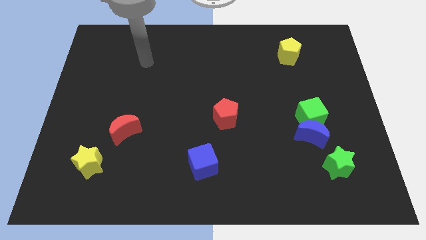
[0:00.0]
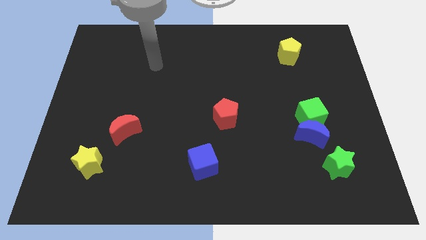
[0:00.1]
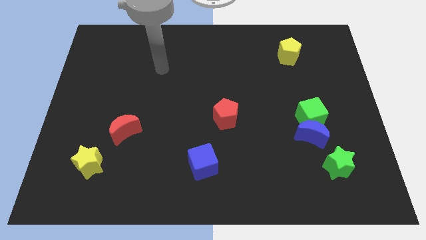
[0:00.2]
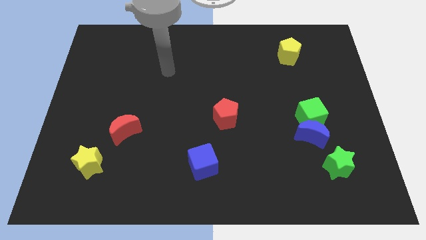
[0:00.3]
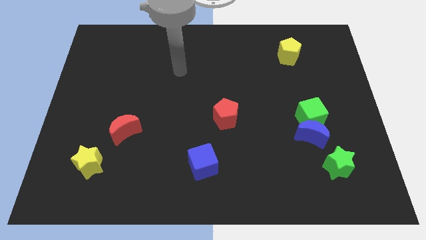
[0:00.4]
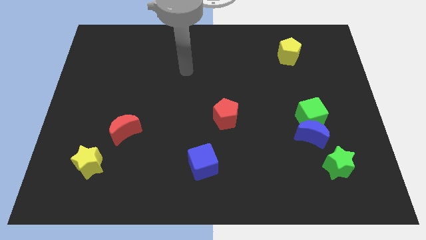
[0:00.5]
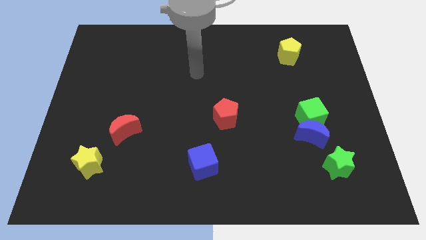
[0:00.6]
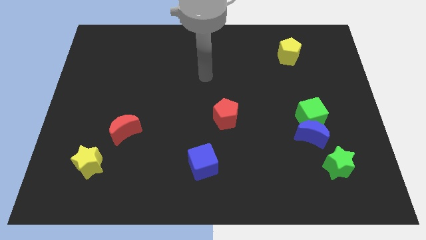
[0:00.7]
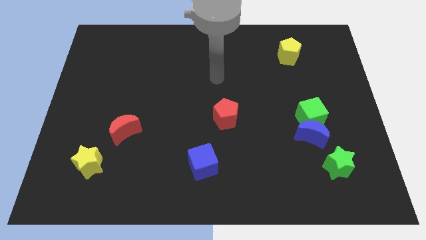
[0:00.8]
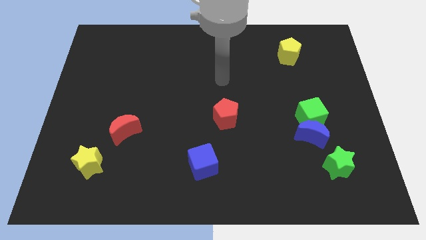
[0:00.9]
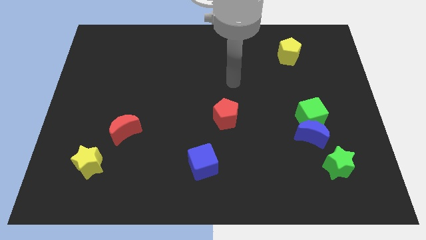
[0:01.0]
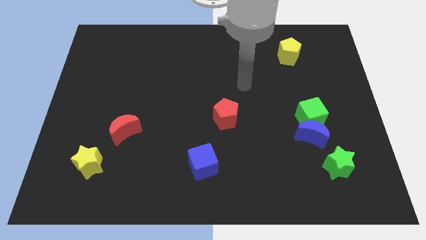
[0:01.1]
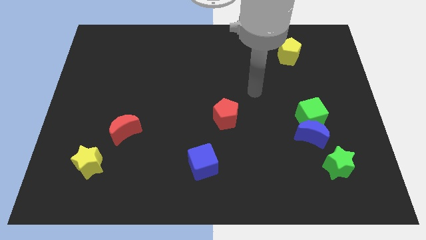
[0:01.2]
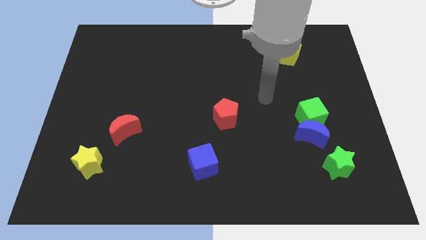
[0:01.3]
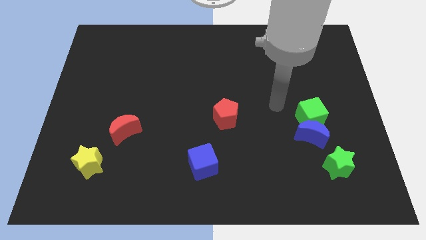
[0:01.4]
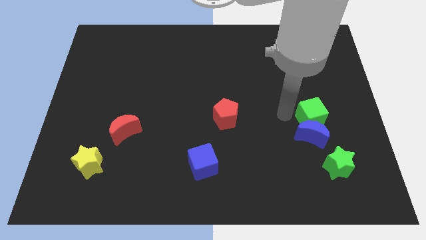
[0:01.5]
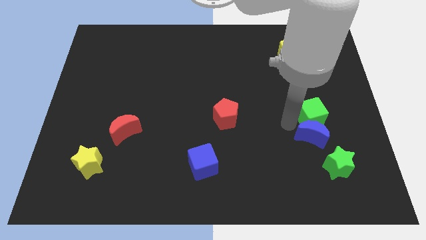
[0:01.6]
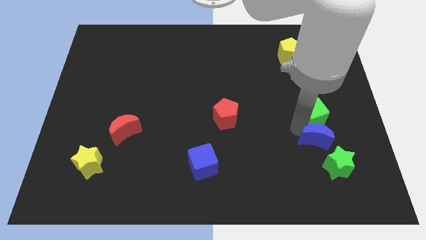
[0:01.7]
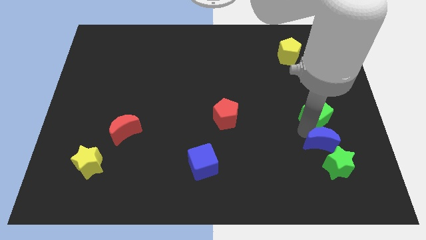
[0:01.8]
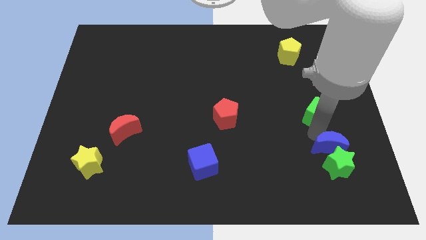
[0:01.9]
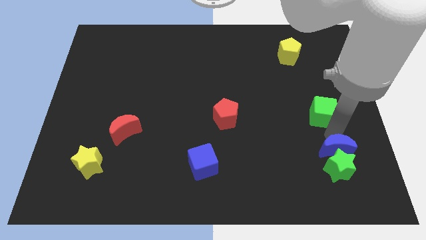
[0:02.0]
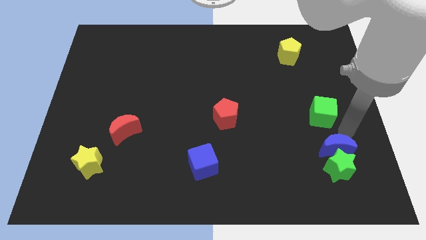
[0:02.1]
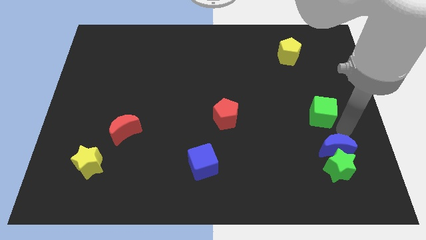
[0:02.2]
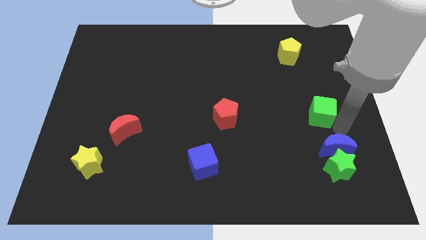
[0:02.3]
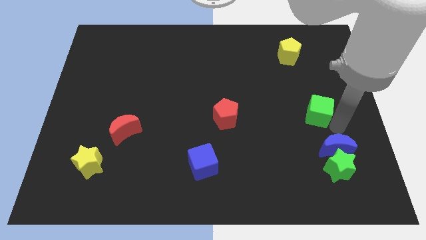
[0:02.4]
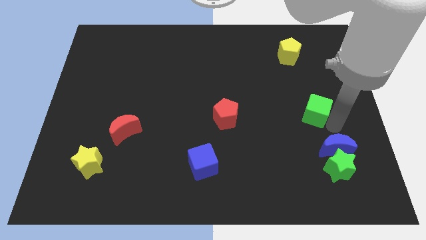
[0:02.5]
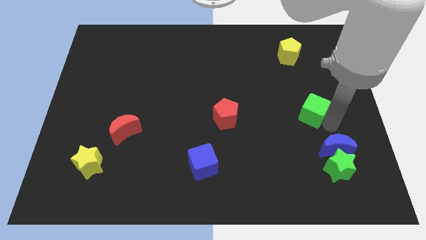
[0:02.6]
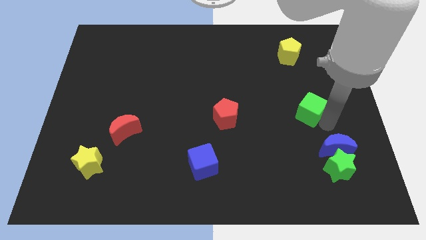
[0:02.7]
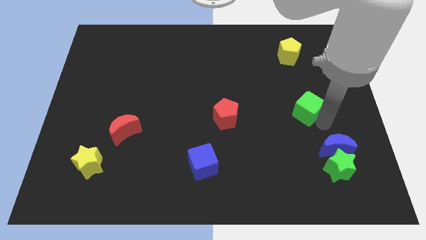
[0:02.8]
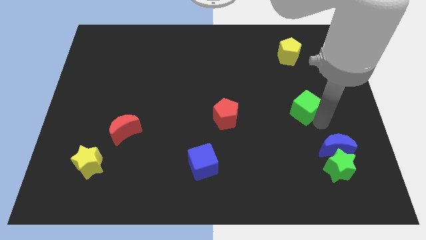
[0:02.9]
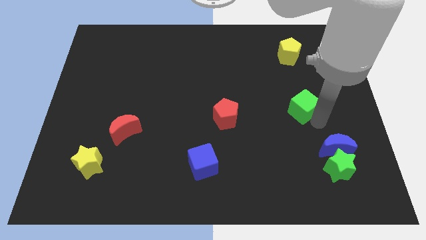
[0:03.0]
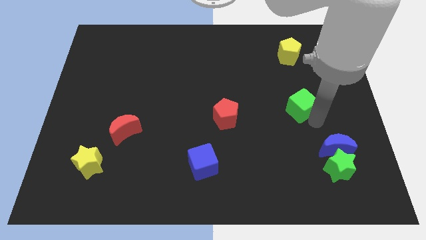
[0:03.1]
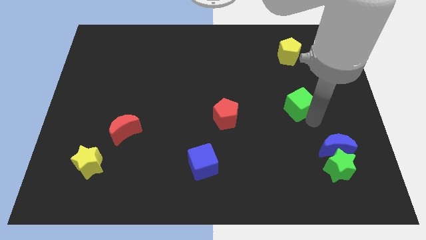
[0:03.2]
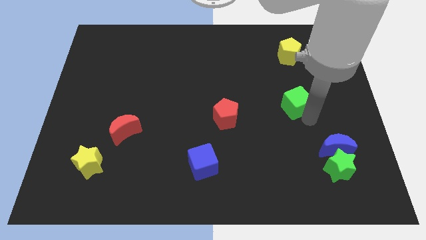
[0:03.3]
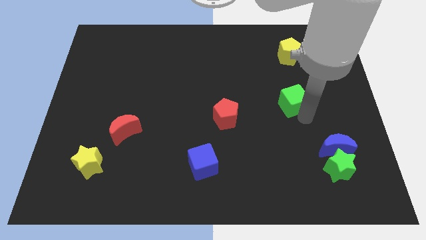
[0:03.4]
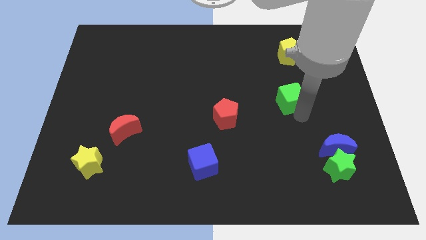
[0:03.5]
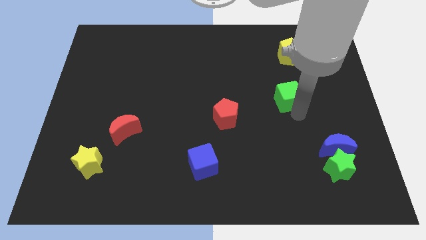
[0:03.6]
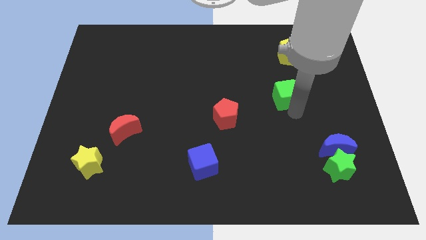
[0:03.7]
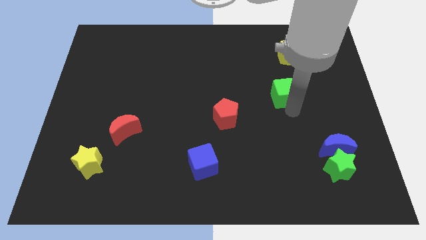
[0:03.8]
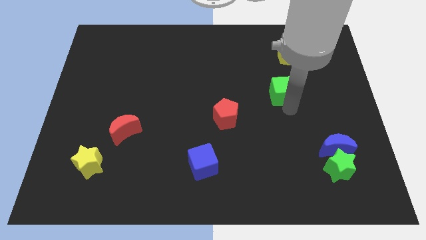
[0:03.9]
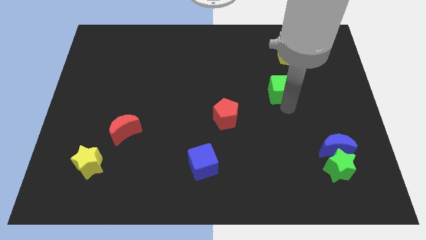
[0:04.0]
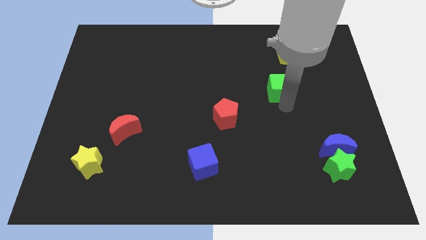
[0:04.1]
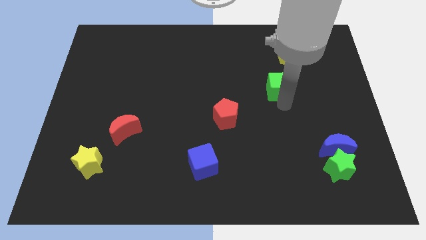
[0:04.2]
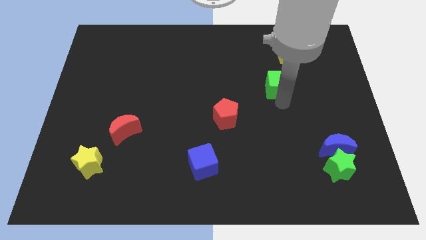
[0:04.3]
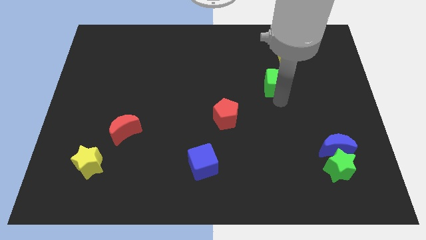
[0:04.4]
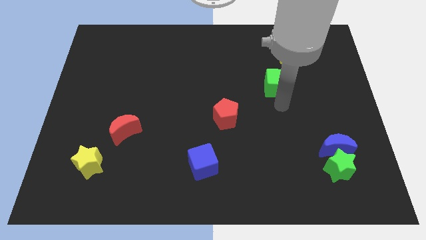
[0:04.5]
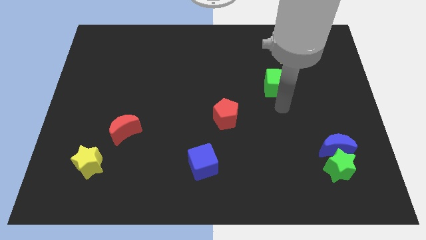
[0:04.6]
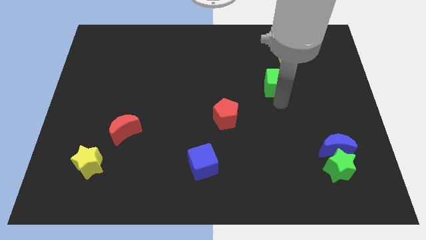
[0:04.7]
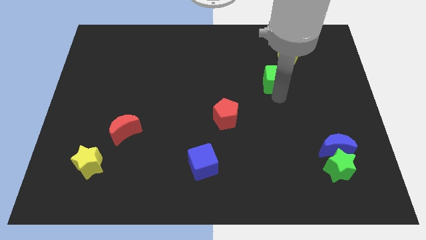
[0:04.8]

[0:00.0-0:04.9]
put the green cube diagonally down and to the left of the yellow pentagon

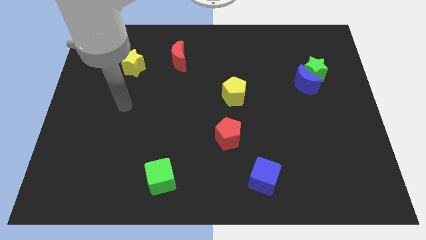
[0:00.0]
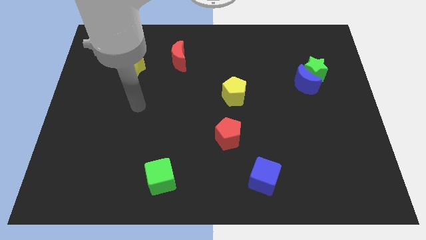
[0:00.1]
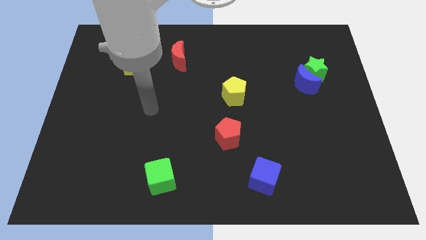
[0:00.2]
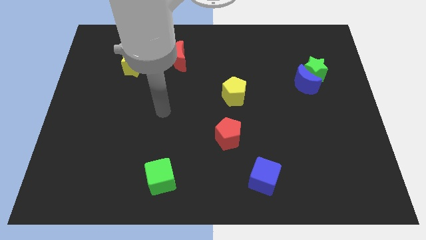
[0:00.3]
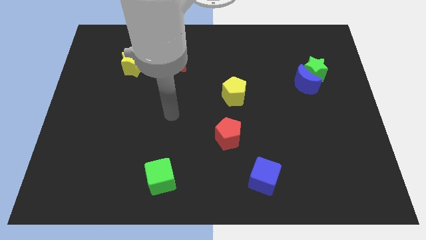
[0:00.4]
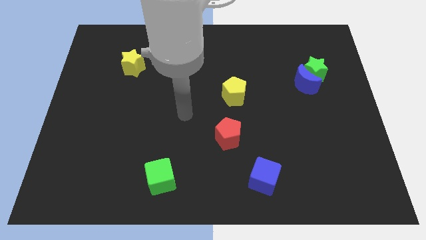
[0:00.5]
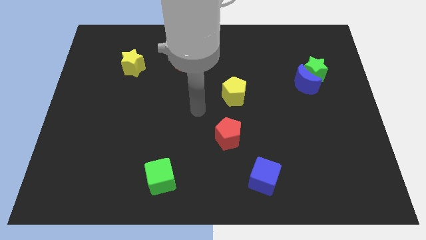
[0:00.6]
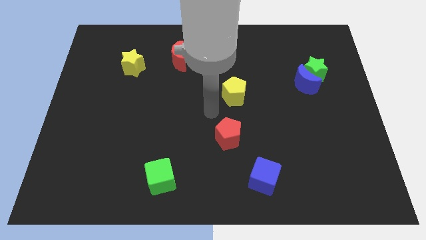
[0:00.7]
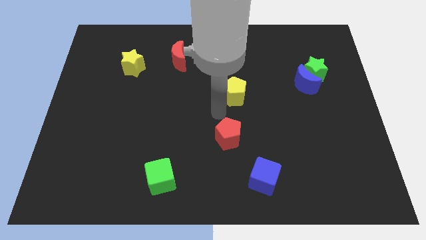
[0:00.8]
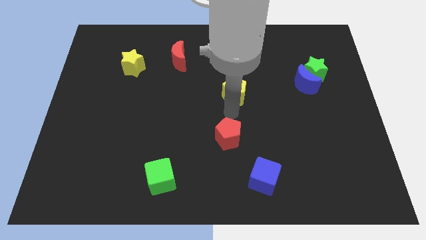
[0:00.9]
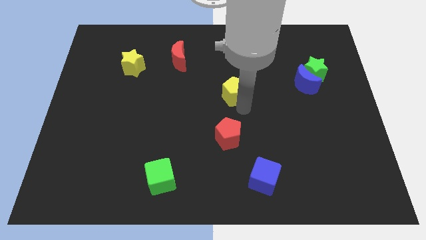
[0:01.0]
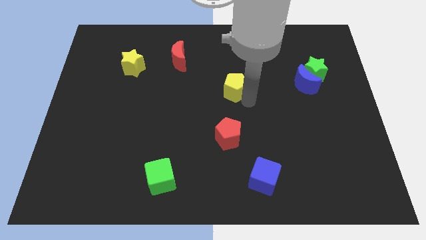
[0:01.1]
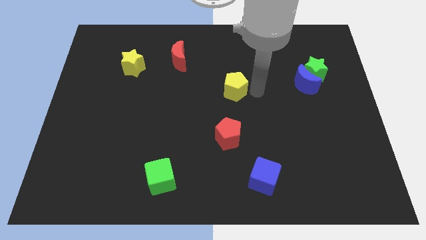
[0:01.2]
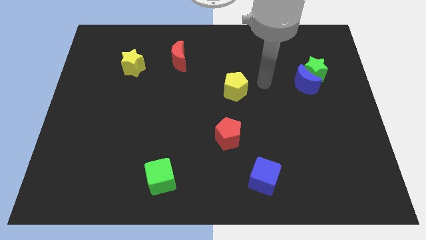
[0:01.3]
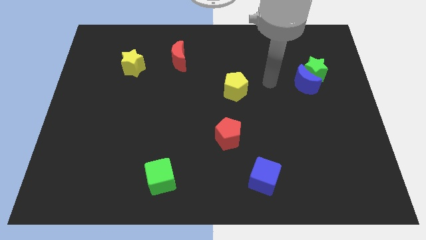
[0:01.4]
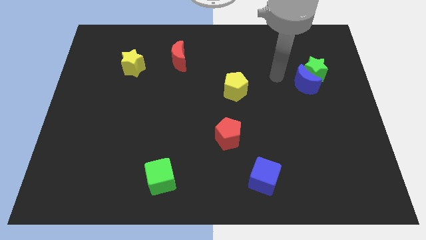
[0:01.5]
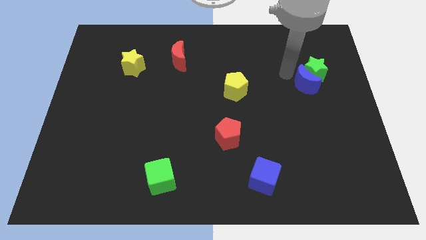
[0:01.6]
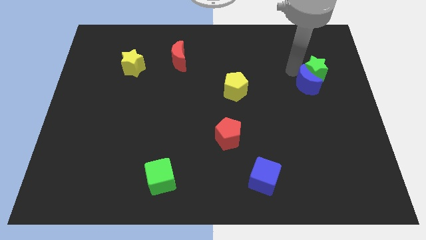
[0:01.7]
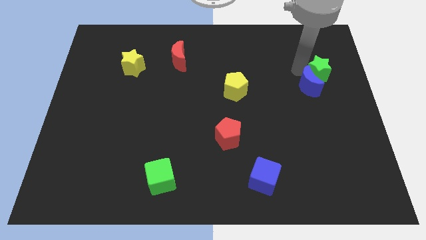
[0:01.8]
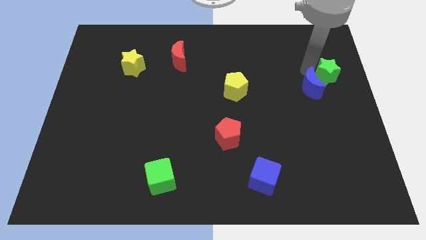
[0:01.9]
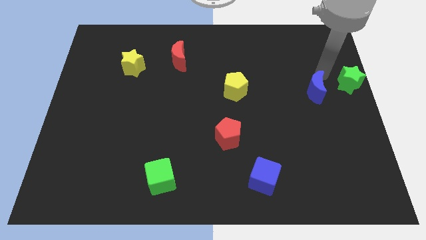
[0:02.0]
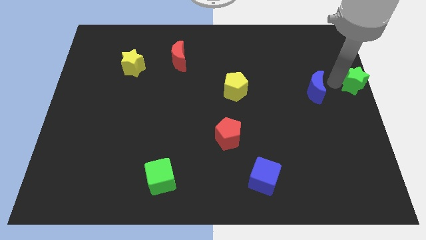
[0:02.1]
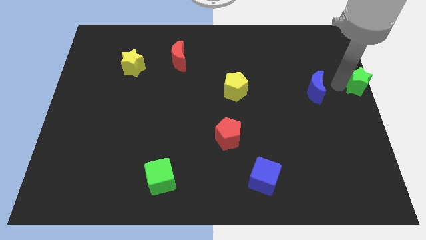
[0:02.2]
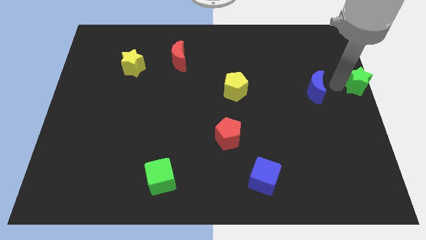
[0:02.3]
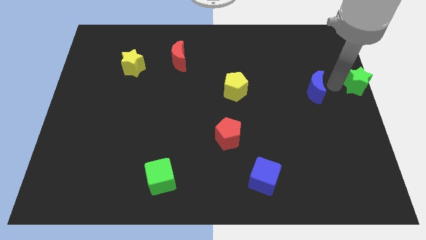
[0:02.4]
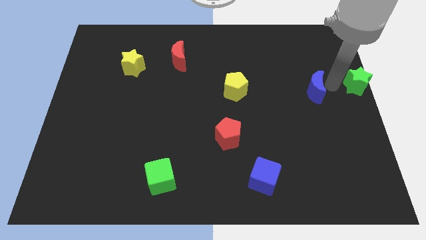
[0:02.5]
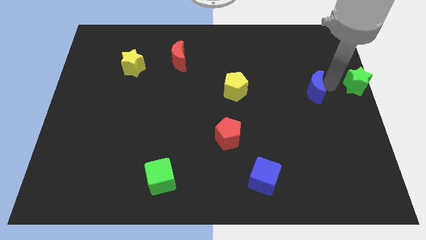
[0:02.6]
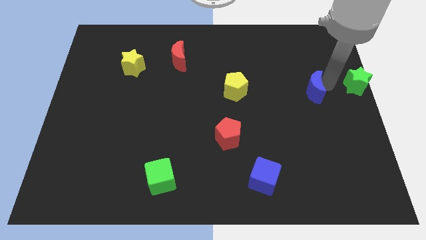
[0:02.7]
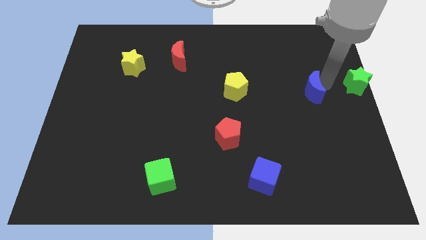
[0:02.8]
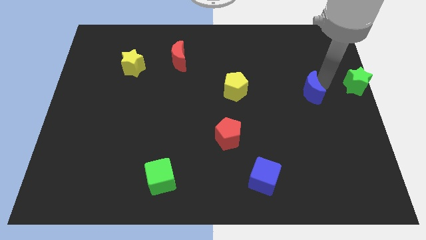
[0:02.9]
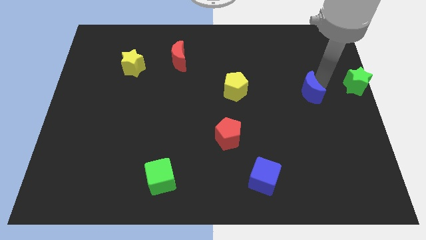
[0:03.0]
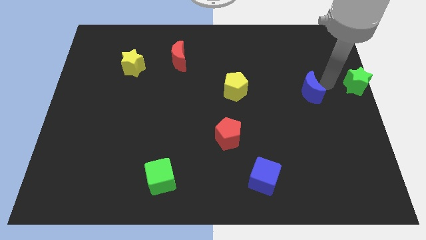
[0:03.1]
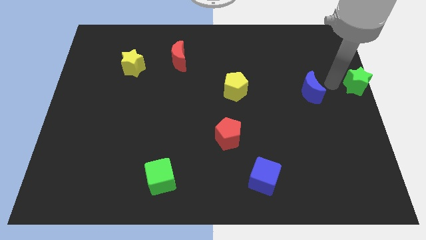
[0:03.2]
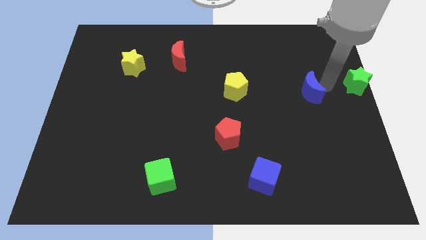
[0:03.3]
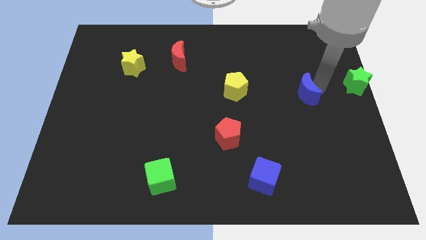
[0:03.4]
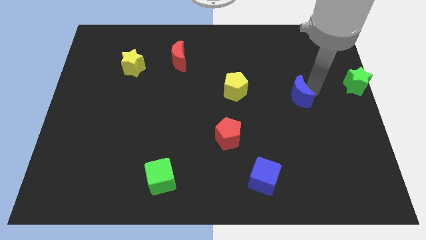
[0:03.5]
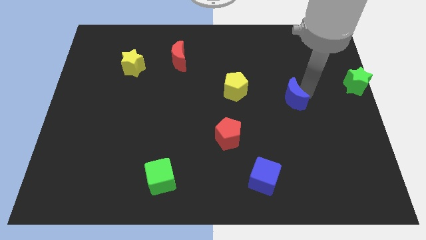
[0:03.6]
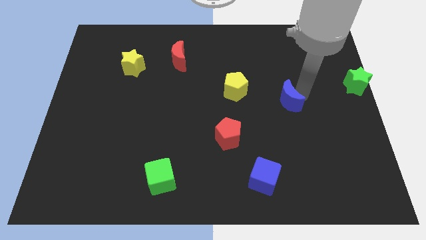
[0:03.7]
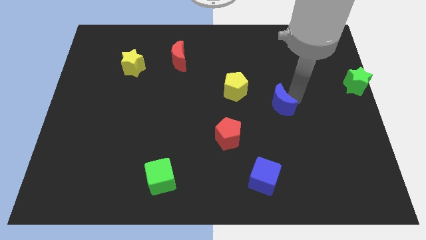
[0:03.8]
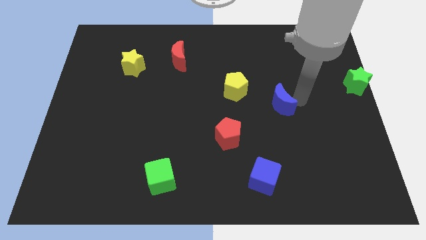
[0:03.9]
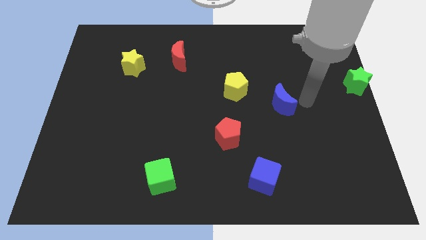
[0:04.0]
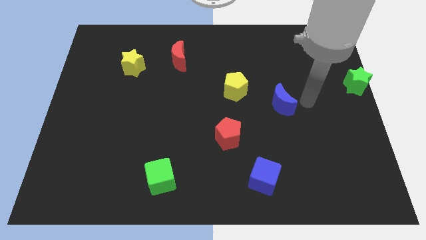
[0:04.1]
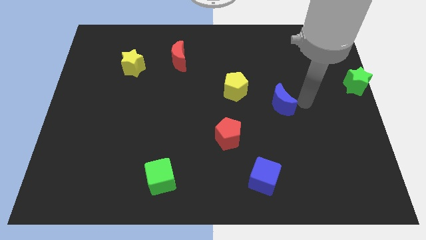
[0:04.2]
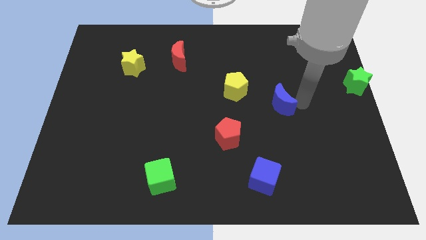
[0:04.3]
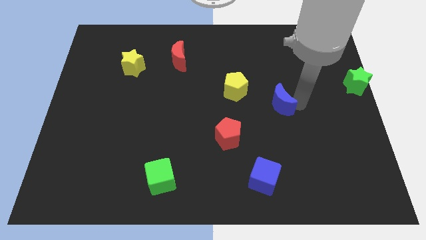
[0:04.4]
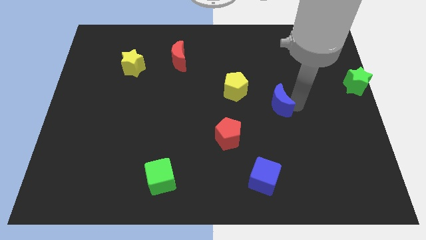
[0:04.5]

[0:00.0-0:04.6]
put the blue moon to the bottom right side of the yellow pentagon
